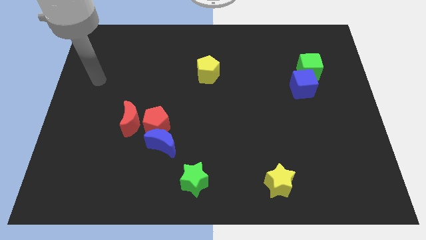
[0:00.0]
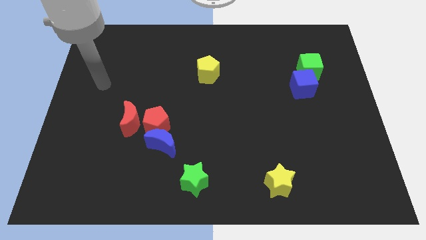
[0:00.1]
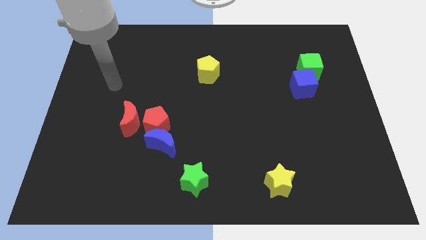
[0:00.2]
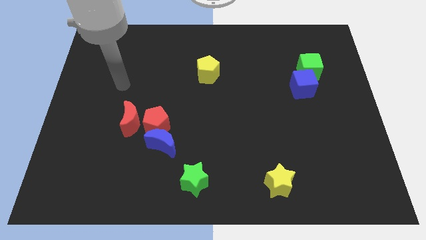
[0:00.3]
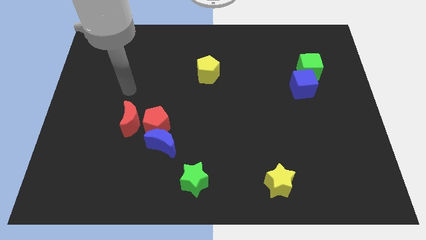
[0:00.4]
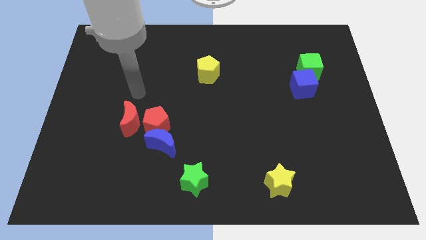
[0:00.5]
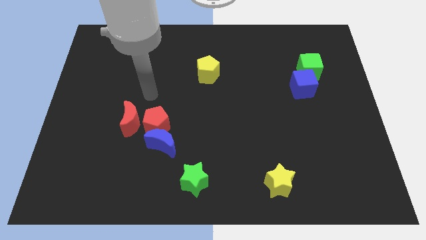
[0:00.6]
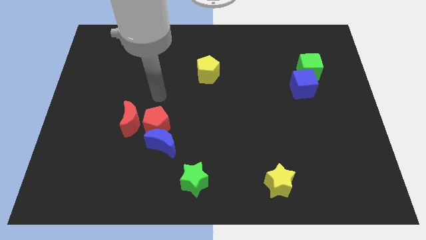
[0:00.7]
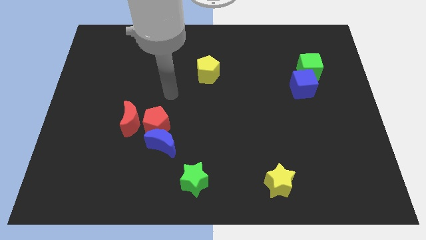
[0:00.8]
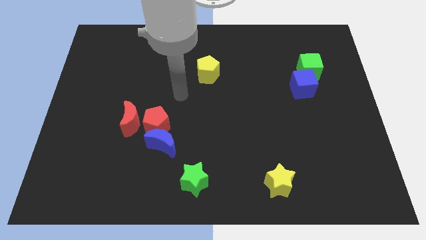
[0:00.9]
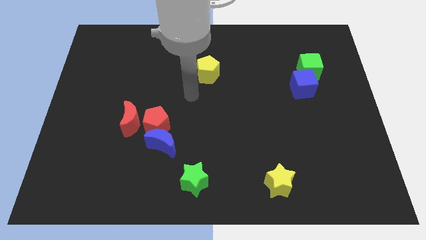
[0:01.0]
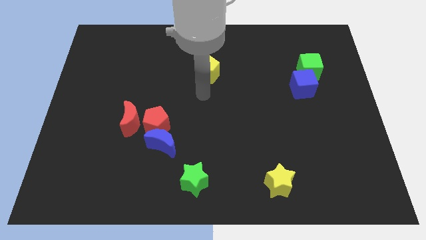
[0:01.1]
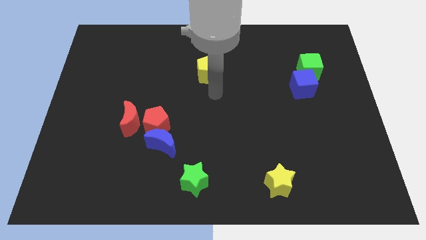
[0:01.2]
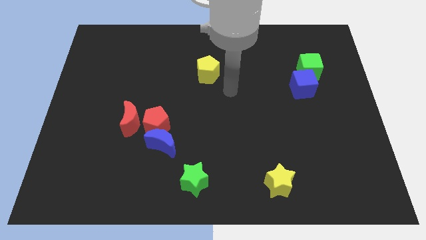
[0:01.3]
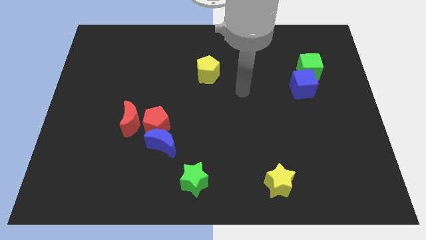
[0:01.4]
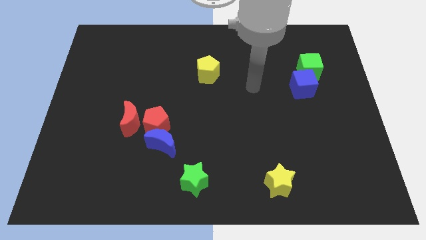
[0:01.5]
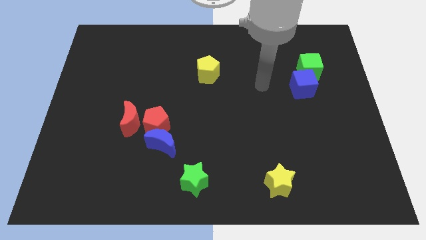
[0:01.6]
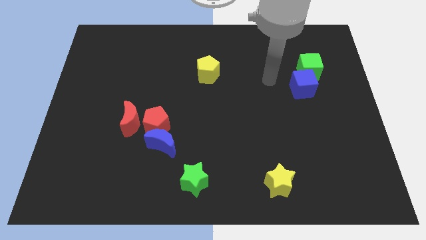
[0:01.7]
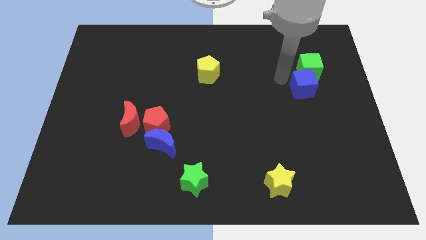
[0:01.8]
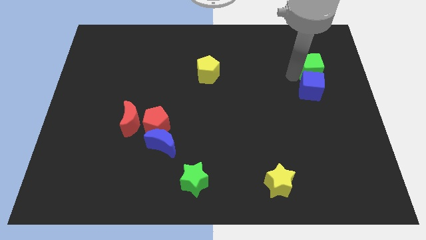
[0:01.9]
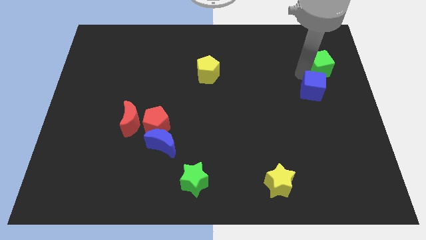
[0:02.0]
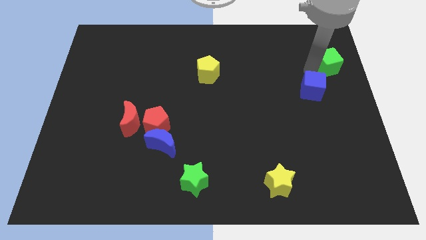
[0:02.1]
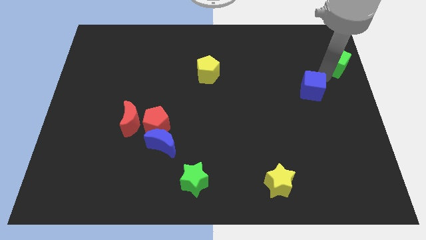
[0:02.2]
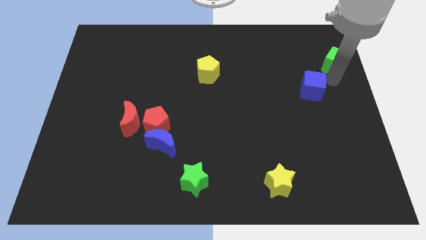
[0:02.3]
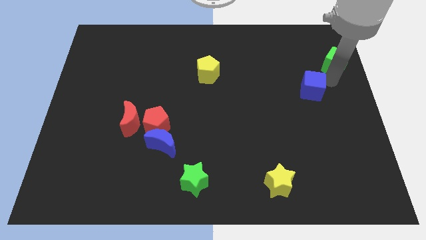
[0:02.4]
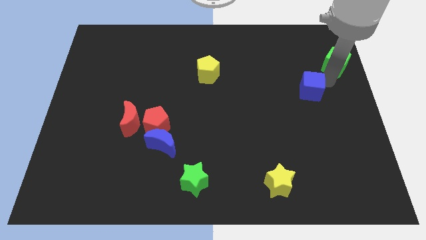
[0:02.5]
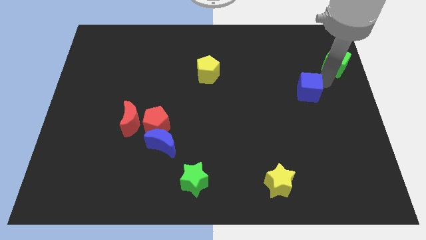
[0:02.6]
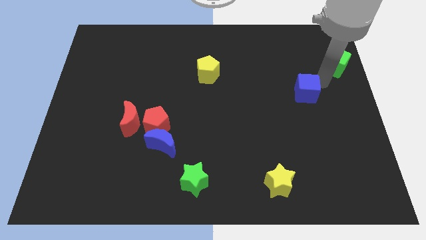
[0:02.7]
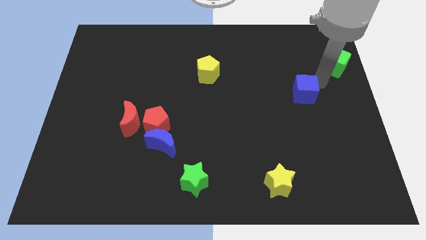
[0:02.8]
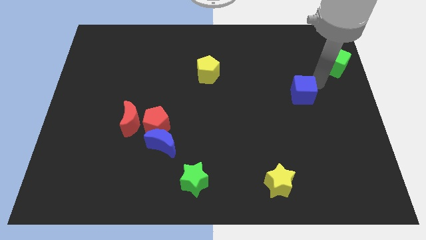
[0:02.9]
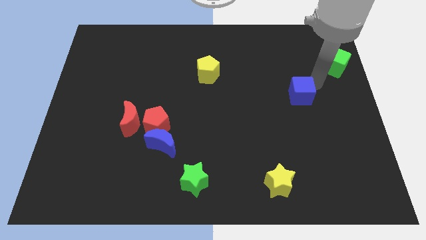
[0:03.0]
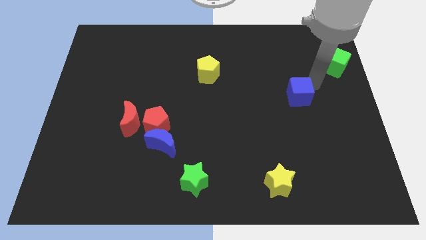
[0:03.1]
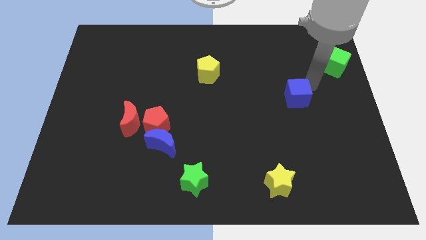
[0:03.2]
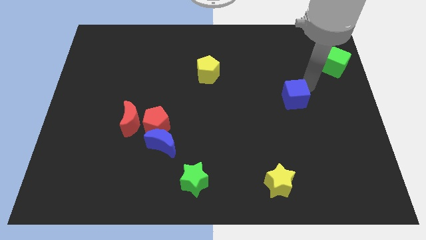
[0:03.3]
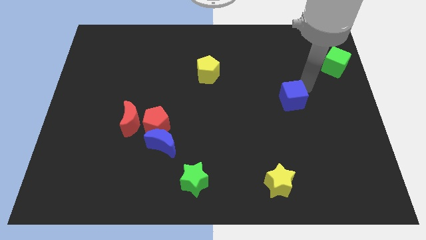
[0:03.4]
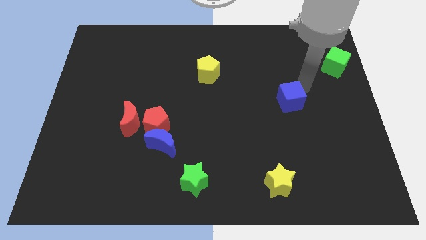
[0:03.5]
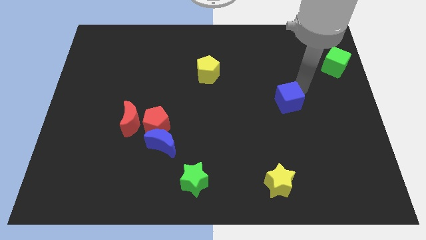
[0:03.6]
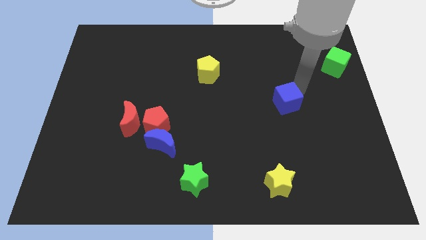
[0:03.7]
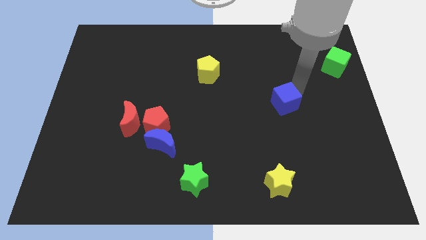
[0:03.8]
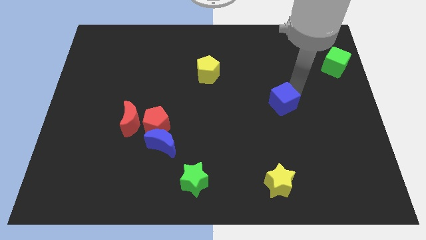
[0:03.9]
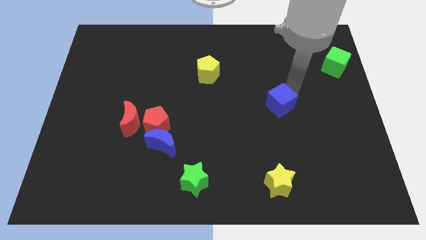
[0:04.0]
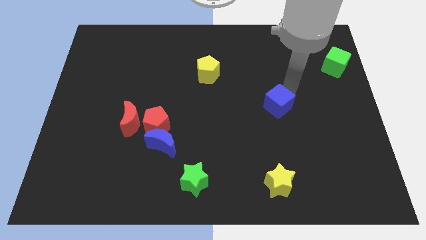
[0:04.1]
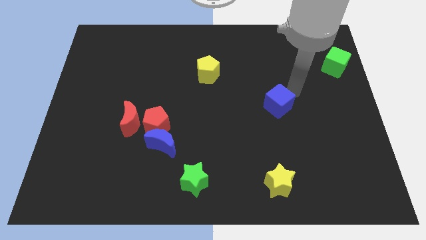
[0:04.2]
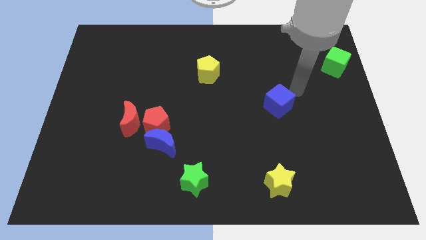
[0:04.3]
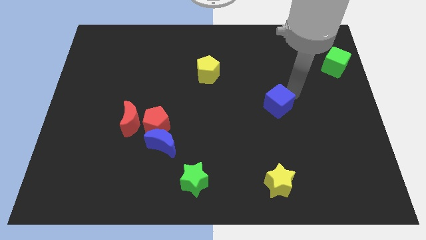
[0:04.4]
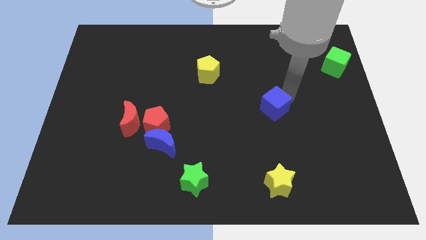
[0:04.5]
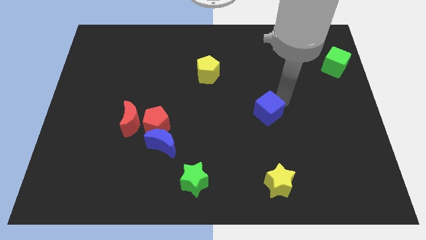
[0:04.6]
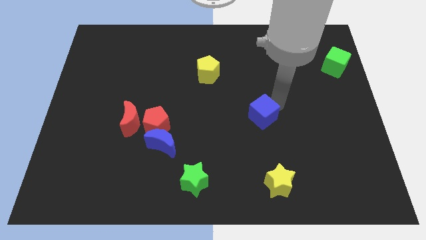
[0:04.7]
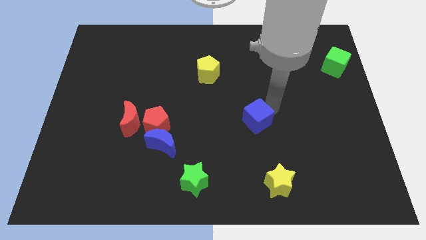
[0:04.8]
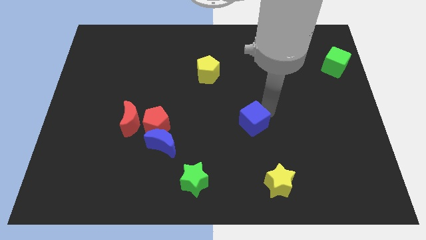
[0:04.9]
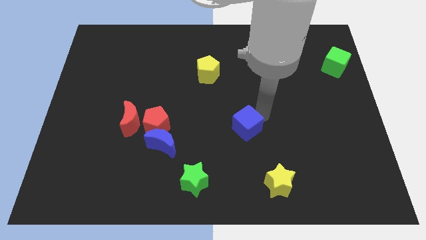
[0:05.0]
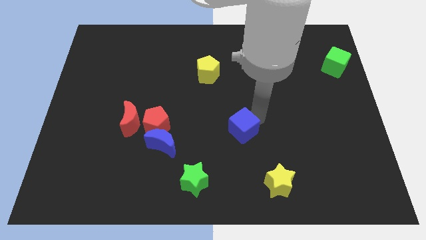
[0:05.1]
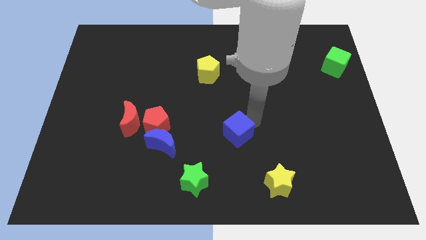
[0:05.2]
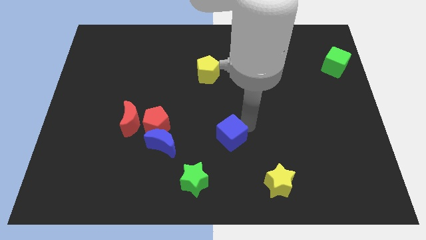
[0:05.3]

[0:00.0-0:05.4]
slide the blue cube just right of the blue moon

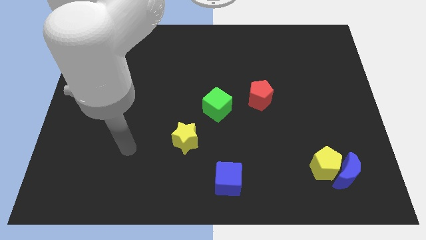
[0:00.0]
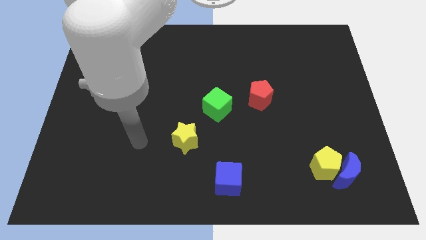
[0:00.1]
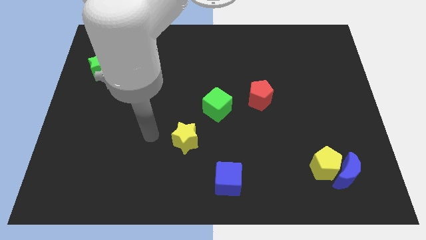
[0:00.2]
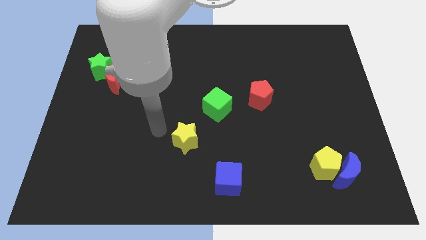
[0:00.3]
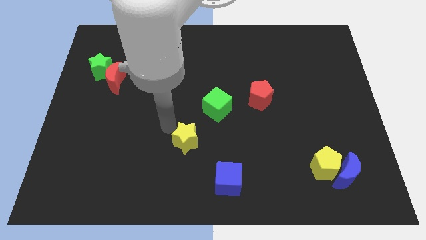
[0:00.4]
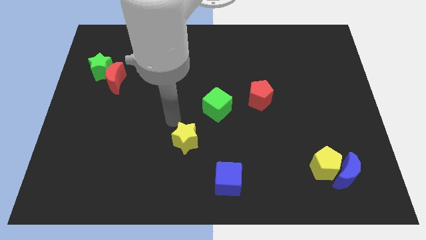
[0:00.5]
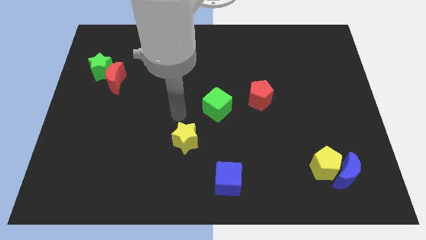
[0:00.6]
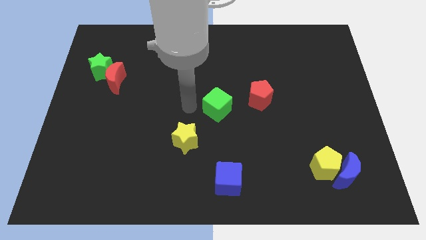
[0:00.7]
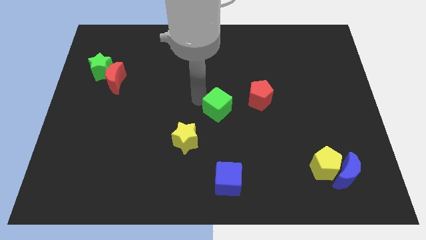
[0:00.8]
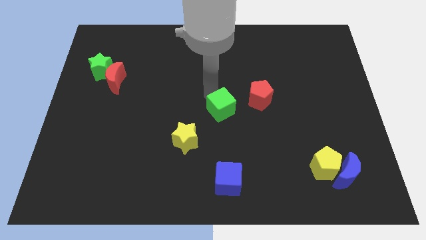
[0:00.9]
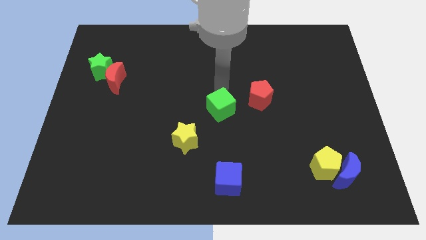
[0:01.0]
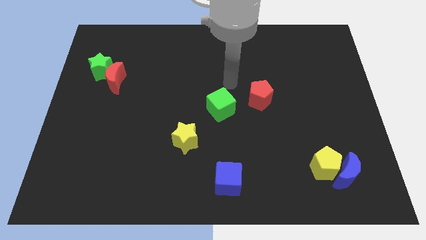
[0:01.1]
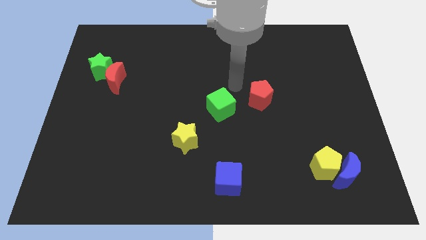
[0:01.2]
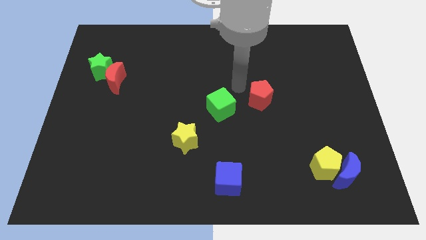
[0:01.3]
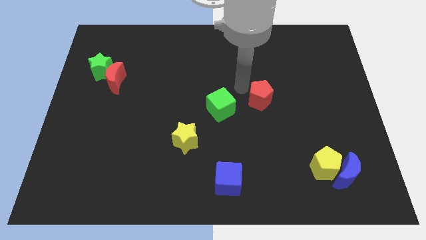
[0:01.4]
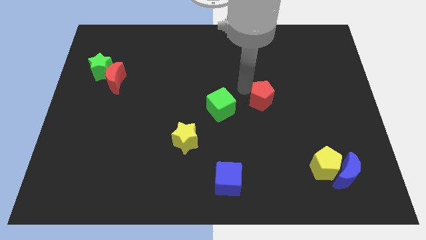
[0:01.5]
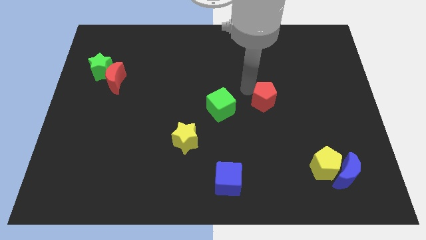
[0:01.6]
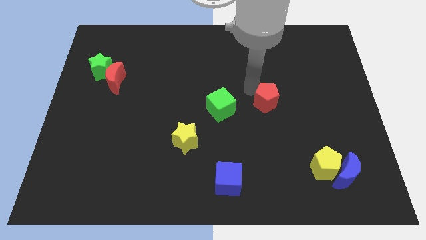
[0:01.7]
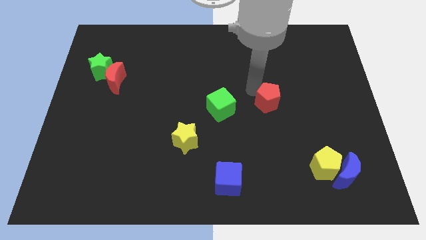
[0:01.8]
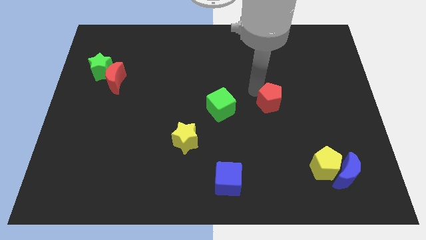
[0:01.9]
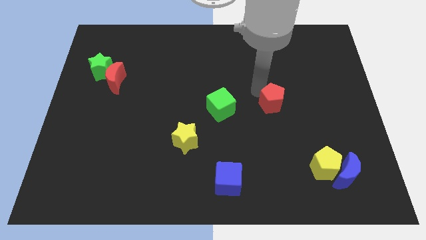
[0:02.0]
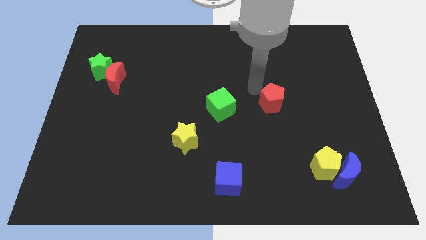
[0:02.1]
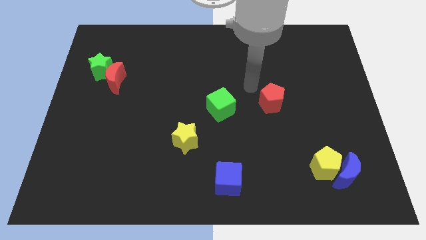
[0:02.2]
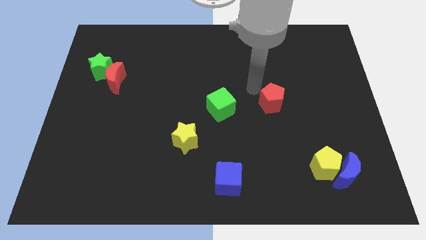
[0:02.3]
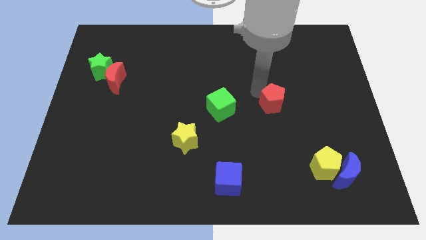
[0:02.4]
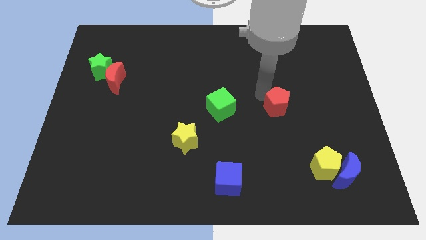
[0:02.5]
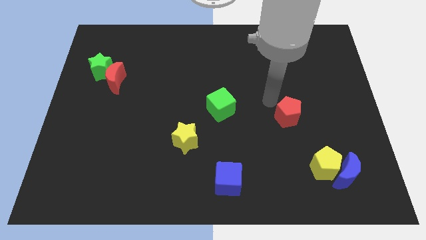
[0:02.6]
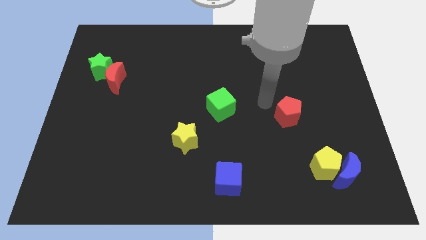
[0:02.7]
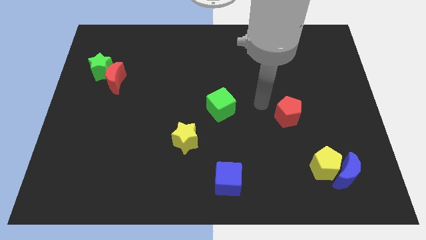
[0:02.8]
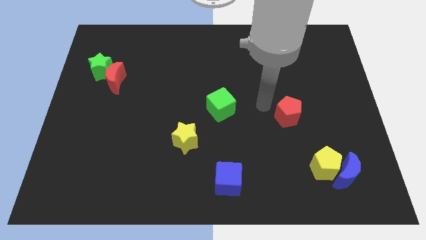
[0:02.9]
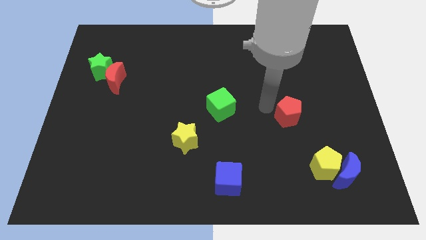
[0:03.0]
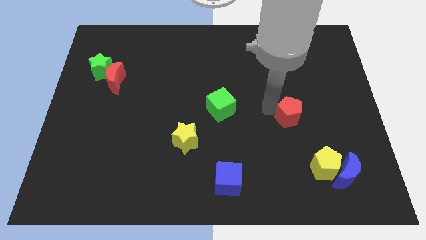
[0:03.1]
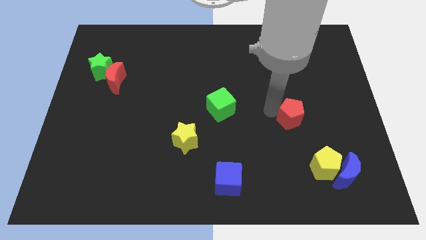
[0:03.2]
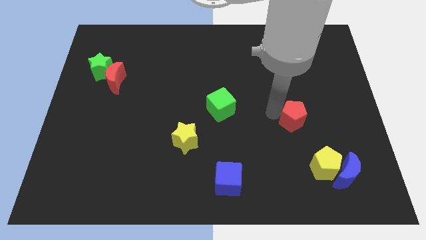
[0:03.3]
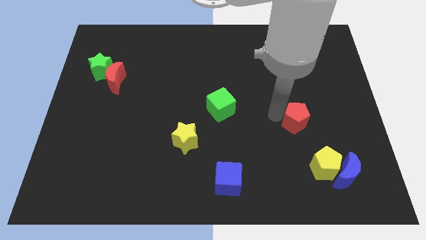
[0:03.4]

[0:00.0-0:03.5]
put the red pentagon to the top side of the yellow pentagon
